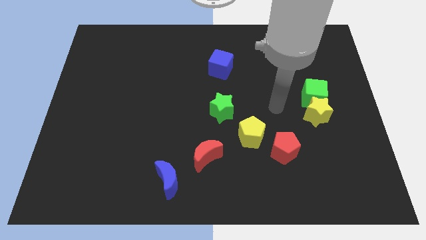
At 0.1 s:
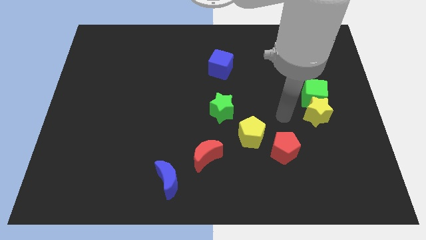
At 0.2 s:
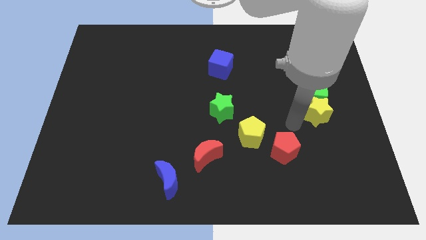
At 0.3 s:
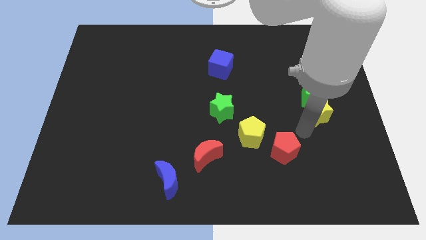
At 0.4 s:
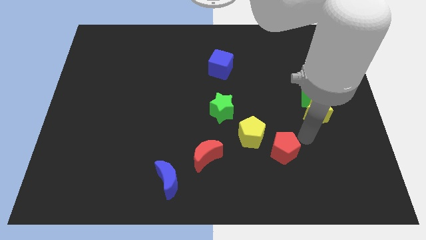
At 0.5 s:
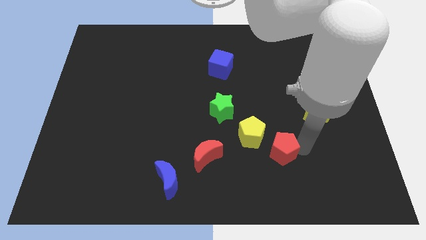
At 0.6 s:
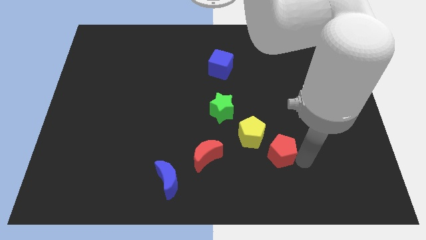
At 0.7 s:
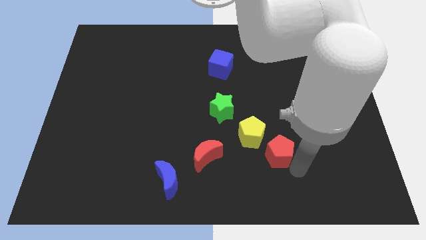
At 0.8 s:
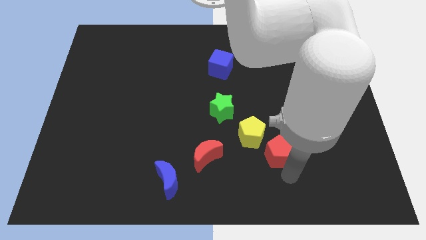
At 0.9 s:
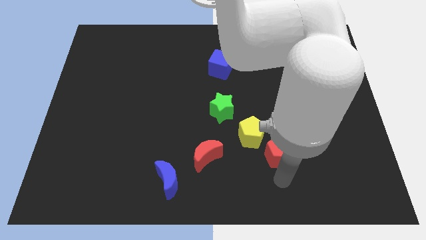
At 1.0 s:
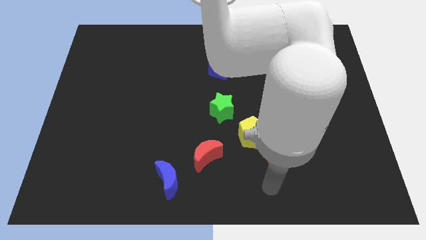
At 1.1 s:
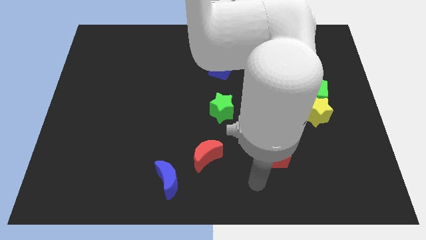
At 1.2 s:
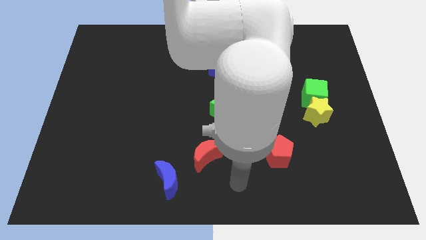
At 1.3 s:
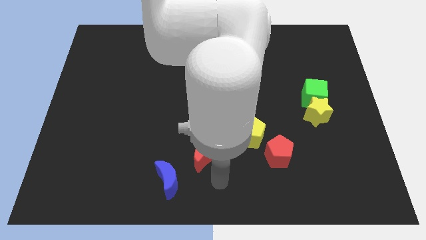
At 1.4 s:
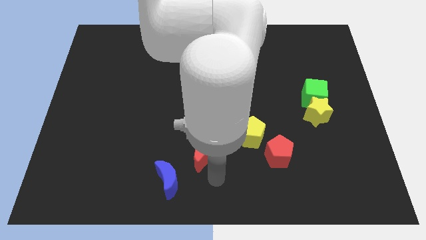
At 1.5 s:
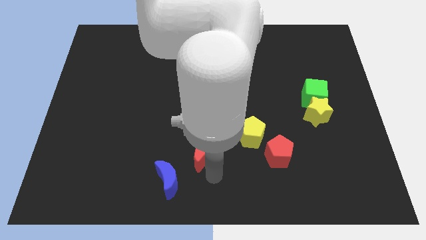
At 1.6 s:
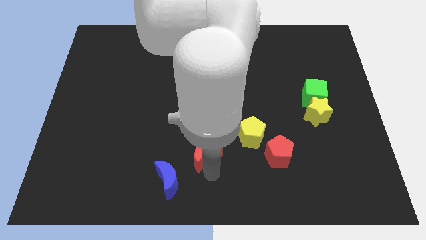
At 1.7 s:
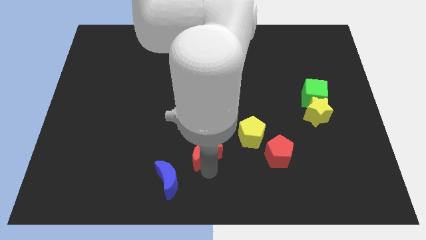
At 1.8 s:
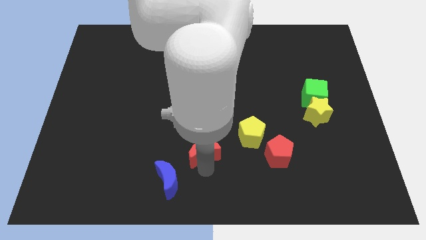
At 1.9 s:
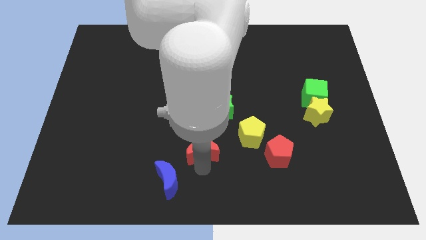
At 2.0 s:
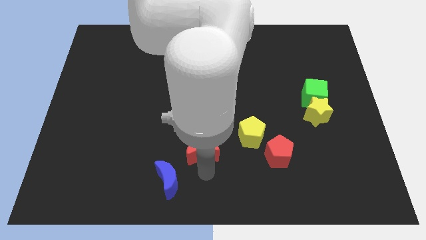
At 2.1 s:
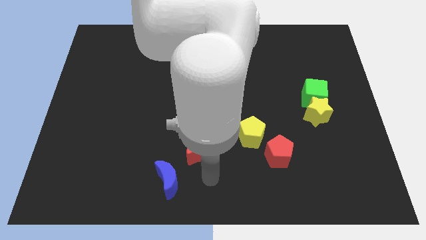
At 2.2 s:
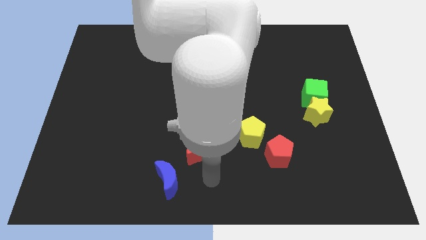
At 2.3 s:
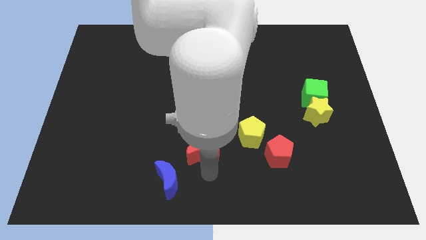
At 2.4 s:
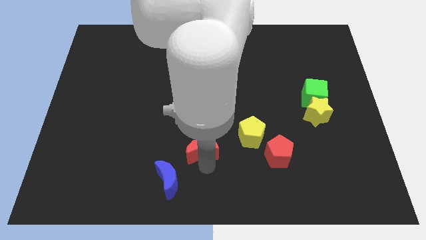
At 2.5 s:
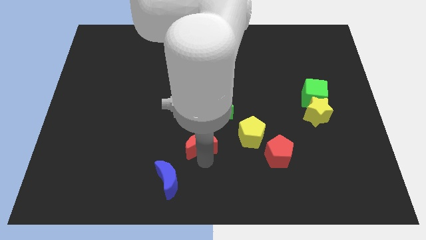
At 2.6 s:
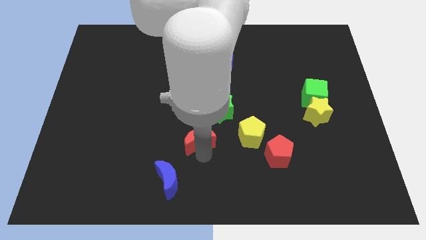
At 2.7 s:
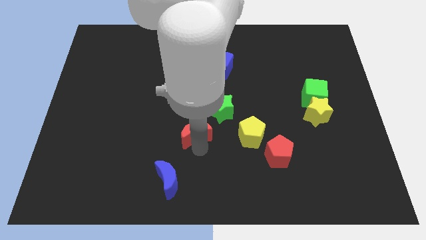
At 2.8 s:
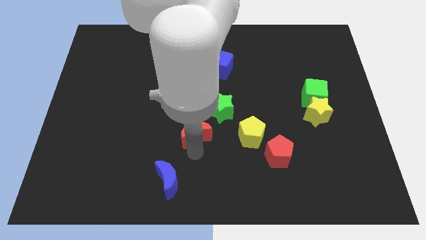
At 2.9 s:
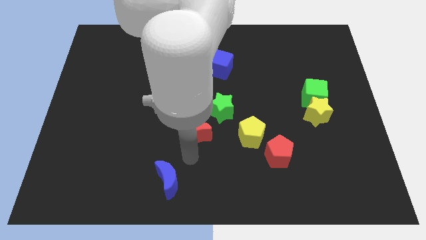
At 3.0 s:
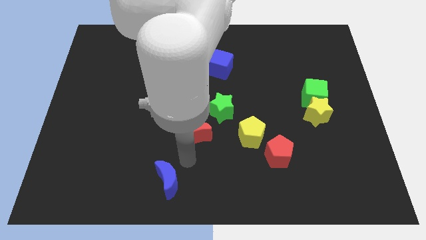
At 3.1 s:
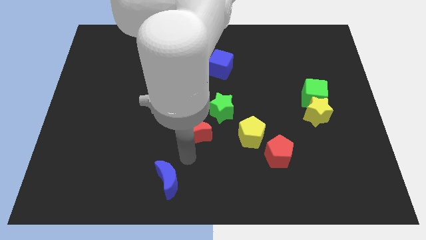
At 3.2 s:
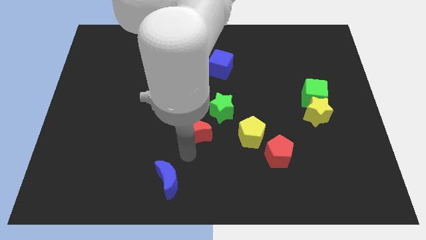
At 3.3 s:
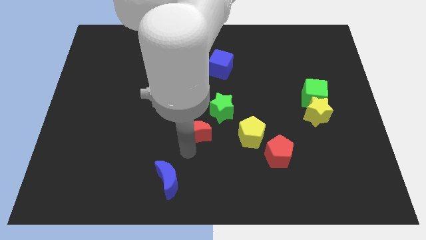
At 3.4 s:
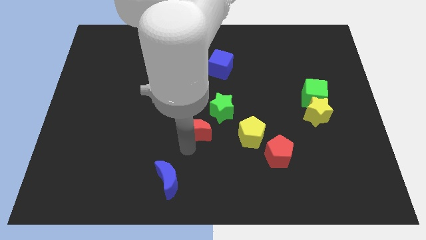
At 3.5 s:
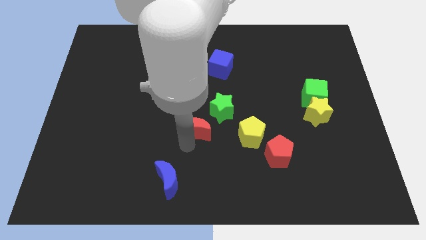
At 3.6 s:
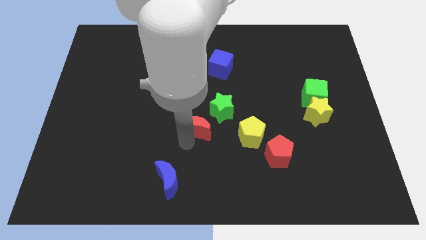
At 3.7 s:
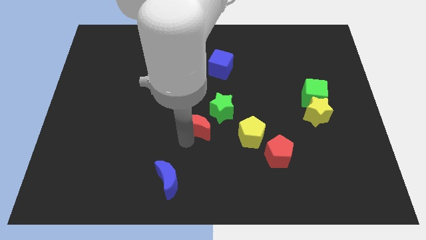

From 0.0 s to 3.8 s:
move the red moon a little bit upwards

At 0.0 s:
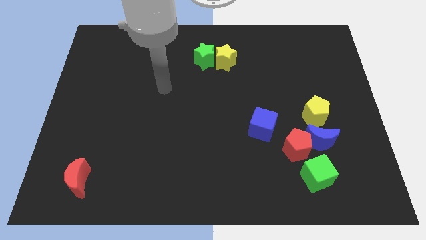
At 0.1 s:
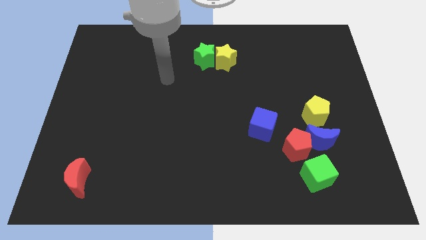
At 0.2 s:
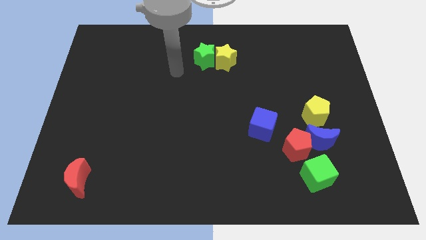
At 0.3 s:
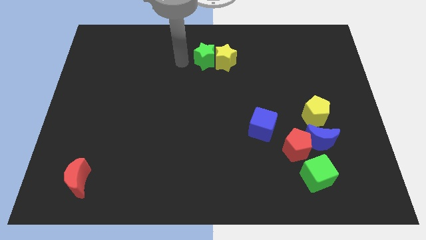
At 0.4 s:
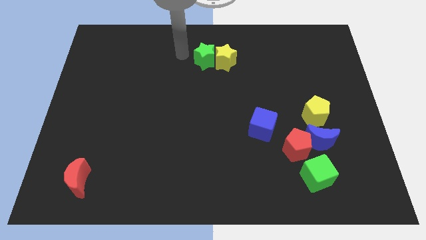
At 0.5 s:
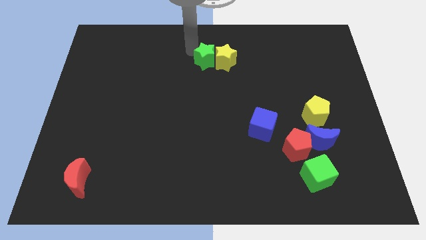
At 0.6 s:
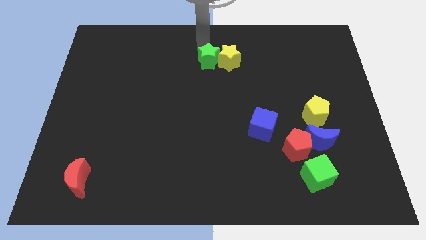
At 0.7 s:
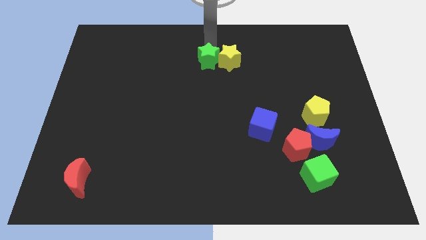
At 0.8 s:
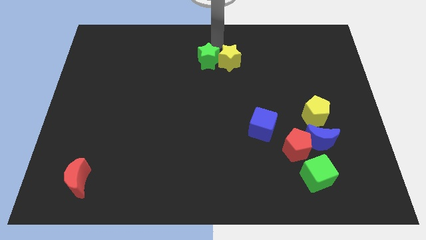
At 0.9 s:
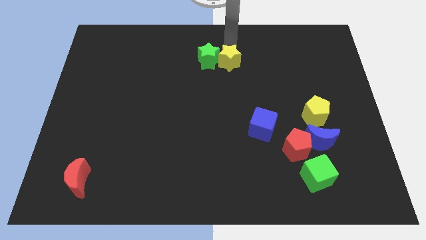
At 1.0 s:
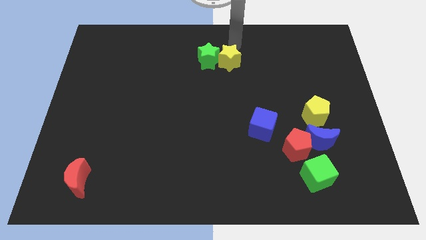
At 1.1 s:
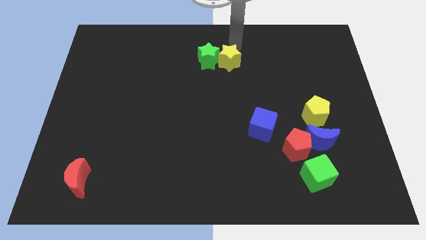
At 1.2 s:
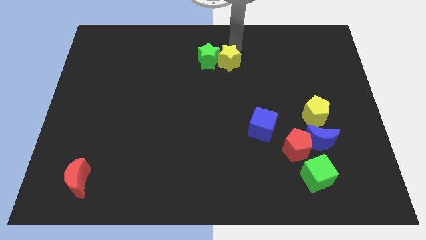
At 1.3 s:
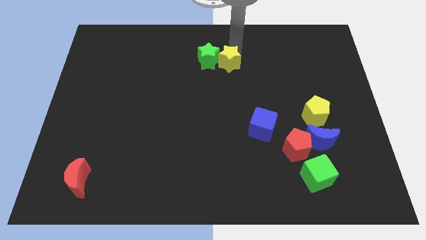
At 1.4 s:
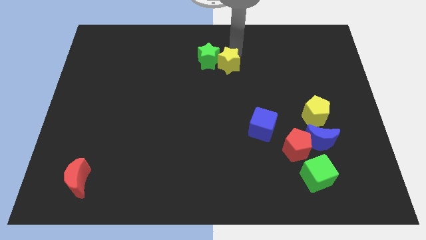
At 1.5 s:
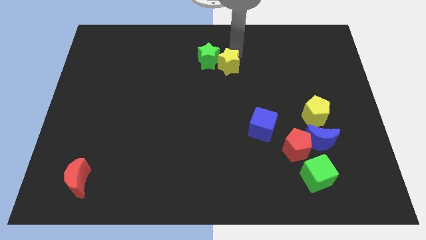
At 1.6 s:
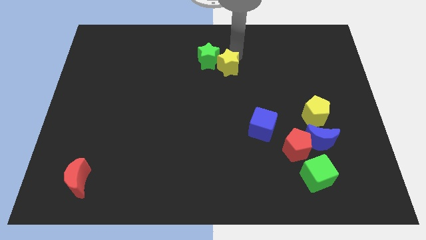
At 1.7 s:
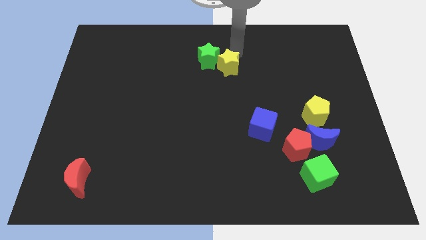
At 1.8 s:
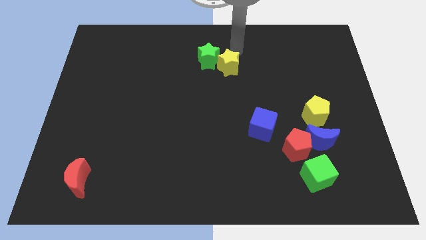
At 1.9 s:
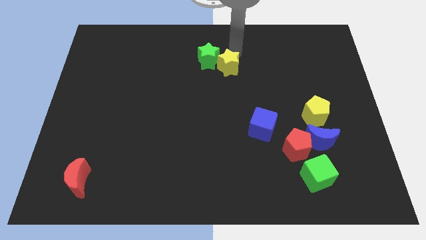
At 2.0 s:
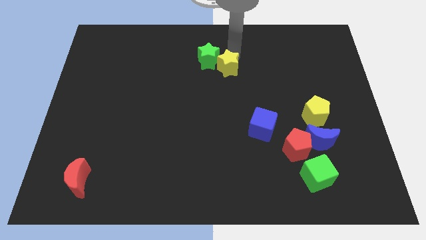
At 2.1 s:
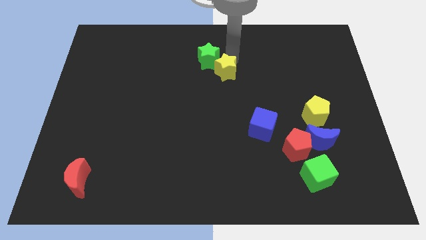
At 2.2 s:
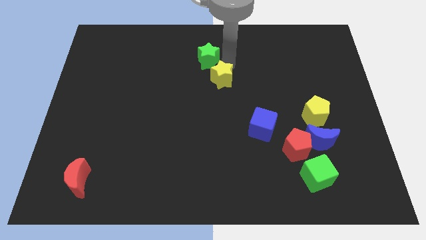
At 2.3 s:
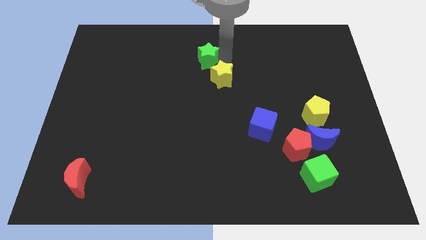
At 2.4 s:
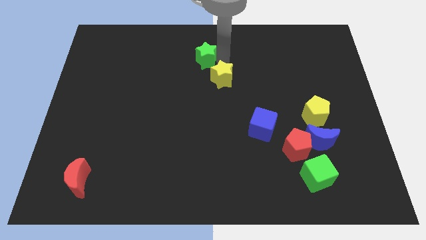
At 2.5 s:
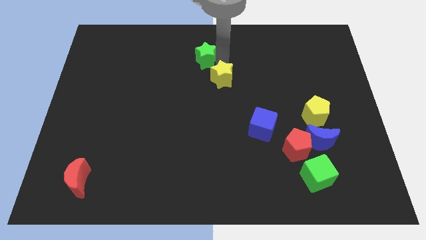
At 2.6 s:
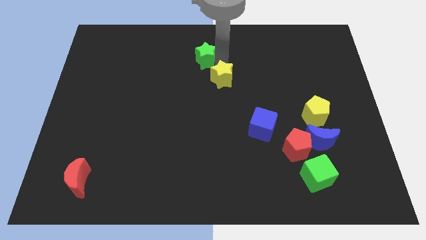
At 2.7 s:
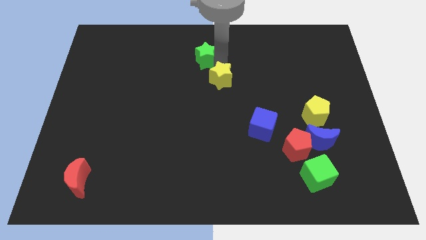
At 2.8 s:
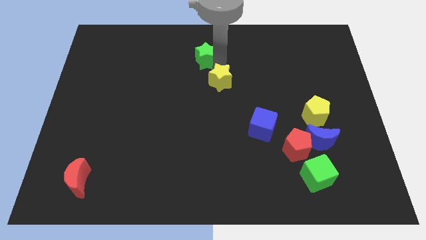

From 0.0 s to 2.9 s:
slightly move the yellow star down

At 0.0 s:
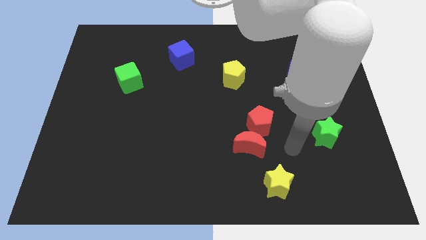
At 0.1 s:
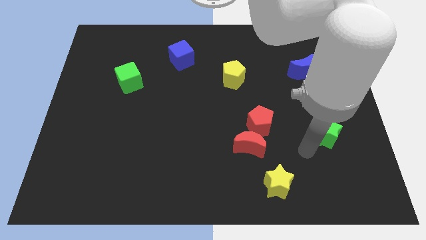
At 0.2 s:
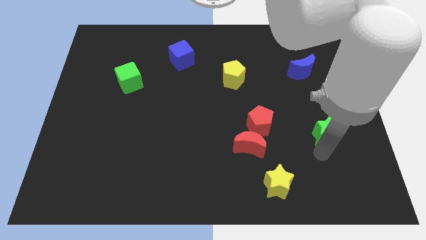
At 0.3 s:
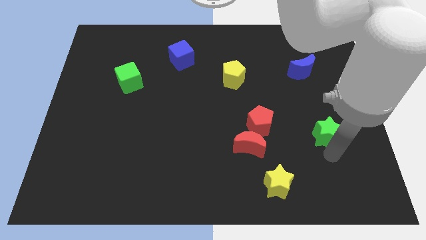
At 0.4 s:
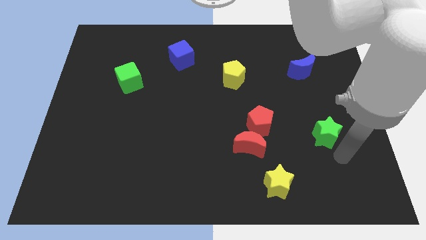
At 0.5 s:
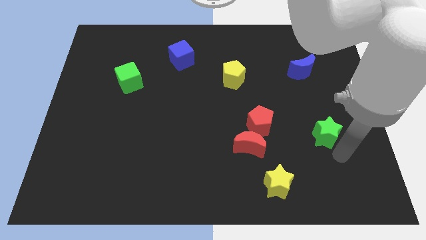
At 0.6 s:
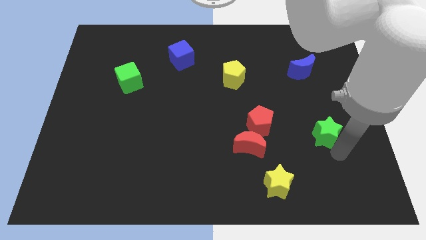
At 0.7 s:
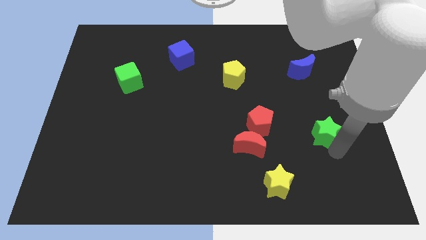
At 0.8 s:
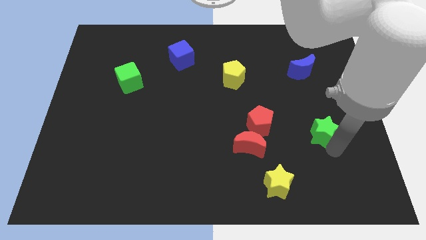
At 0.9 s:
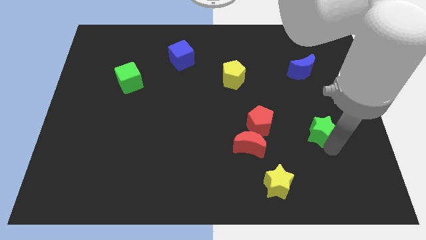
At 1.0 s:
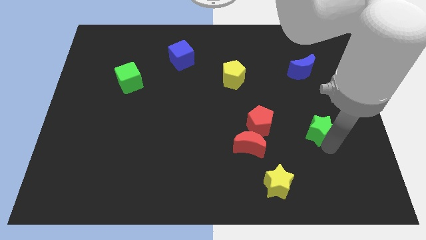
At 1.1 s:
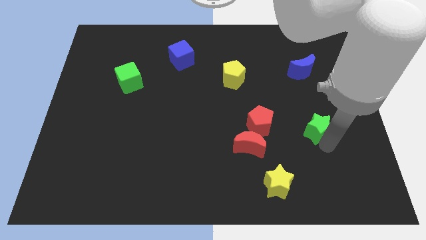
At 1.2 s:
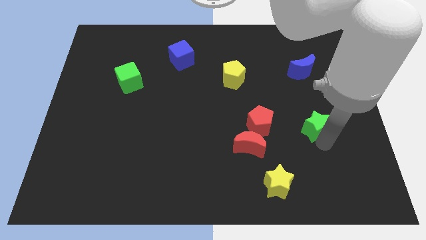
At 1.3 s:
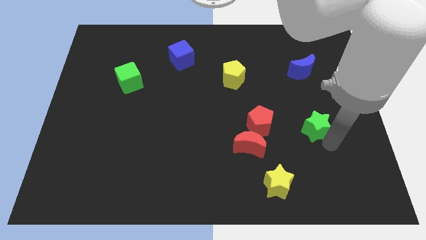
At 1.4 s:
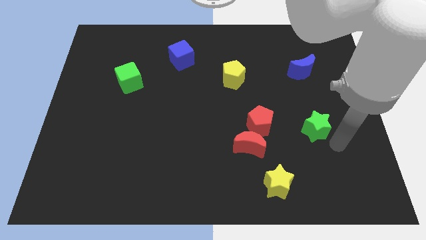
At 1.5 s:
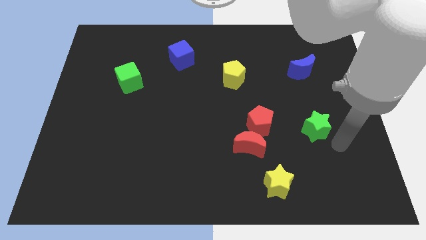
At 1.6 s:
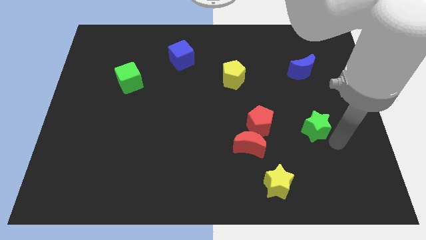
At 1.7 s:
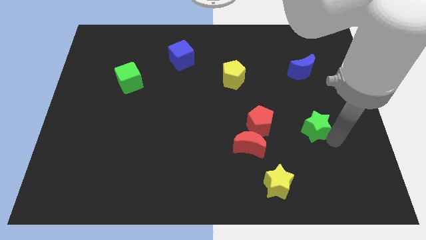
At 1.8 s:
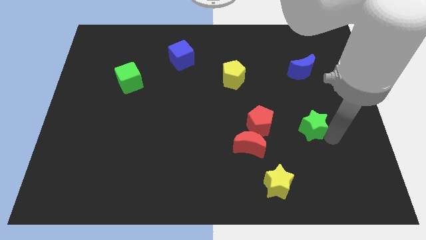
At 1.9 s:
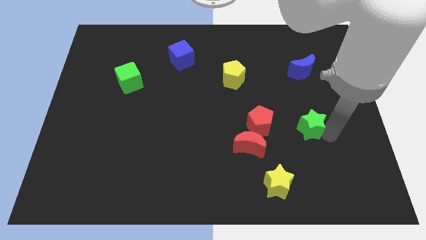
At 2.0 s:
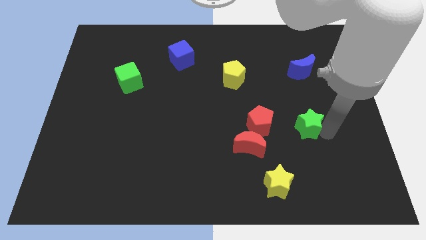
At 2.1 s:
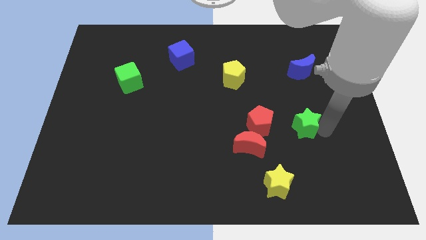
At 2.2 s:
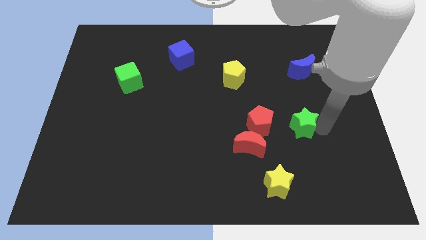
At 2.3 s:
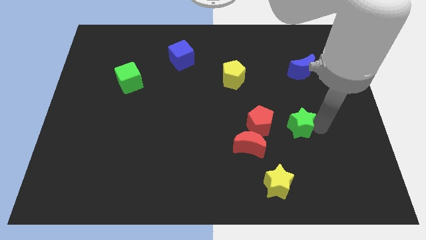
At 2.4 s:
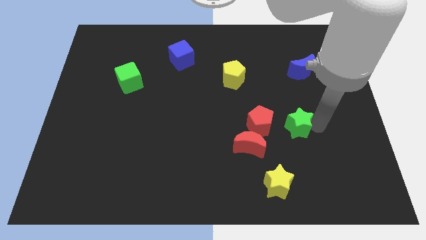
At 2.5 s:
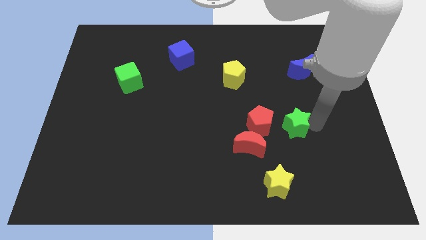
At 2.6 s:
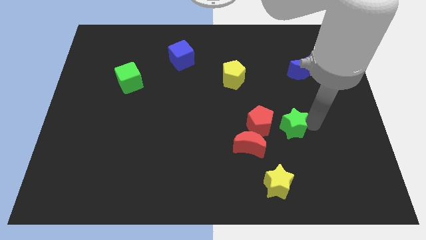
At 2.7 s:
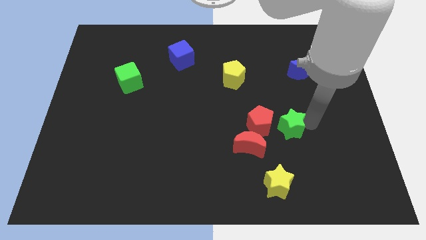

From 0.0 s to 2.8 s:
slightly push the green star to the left
